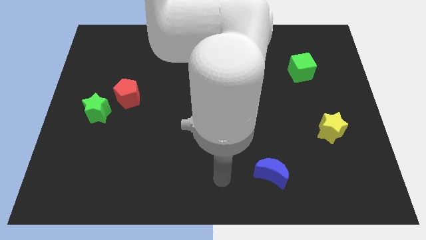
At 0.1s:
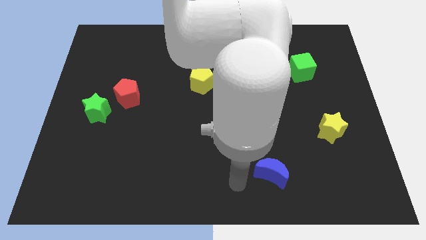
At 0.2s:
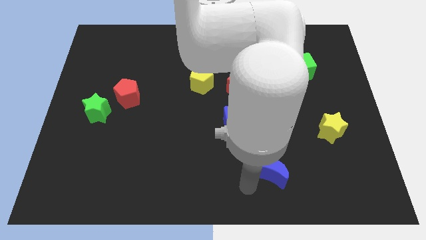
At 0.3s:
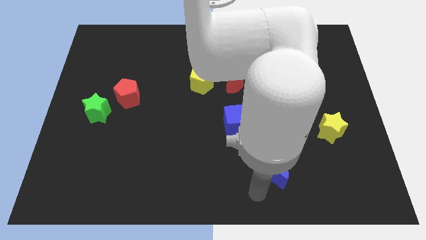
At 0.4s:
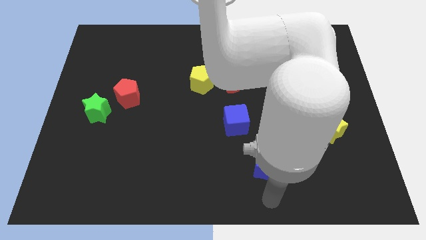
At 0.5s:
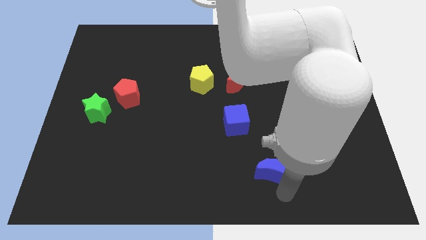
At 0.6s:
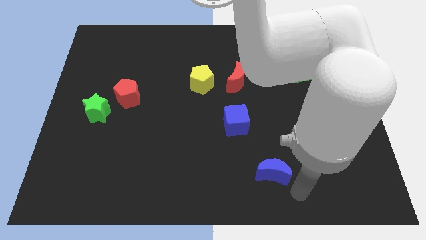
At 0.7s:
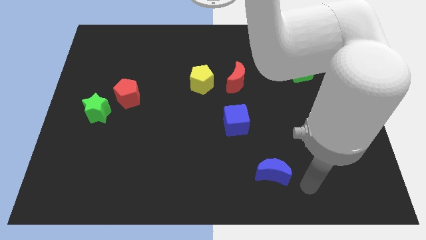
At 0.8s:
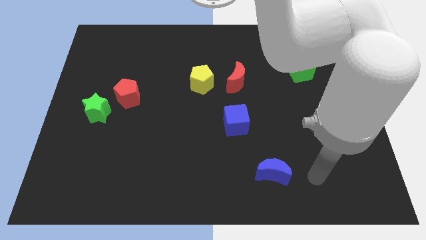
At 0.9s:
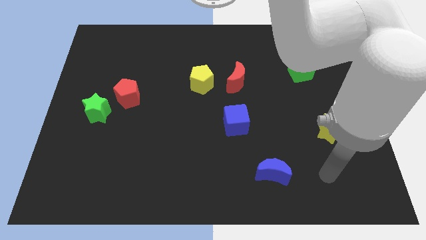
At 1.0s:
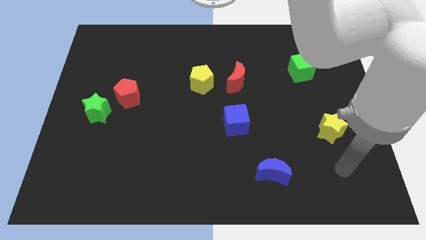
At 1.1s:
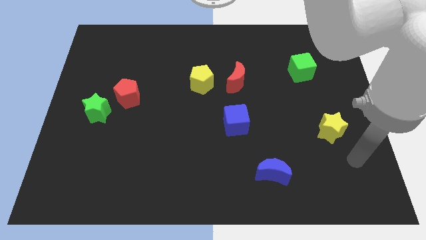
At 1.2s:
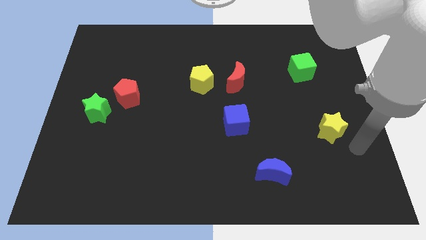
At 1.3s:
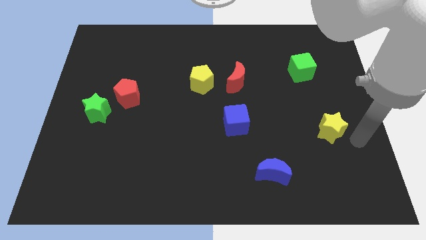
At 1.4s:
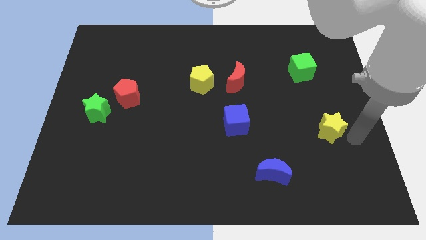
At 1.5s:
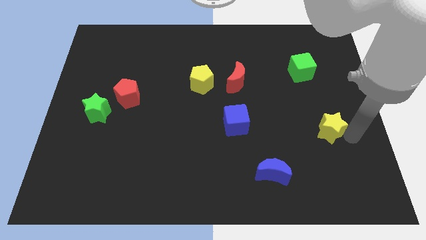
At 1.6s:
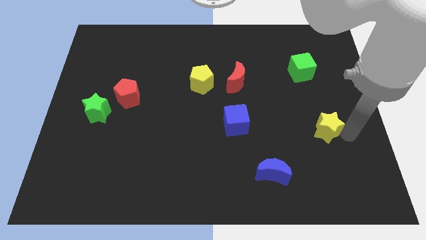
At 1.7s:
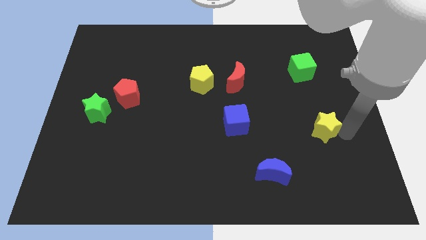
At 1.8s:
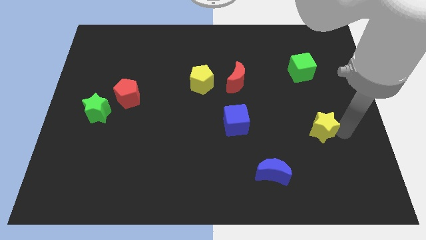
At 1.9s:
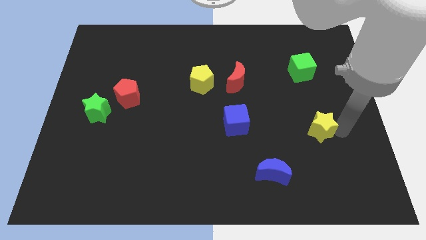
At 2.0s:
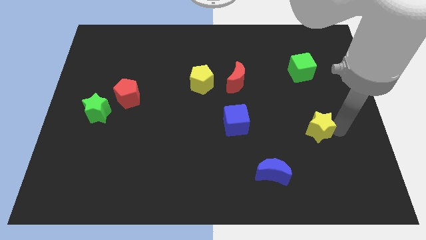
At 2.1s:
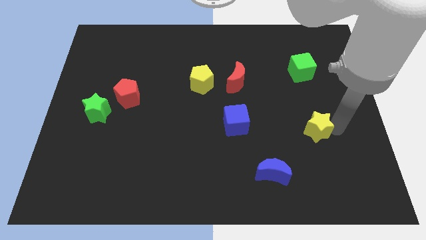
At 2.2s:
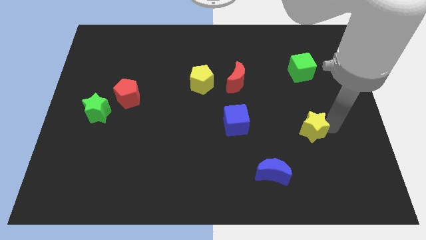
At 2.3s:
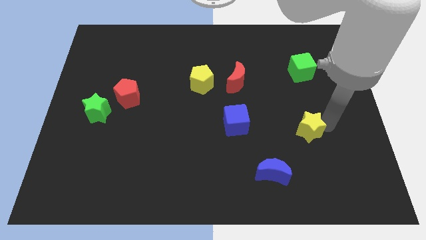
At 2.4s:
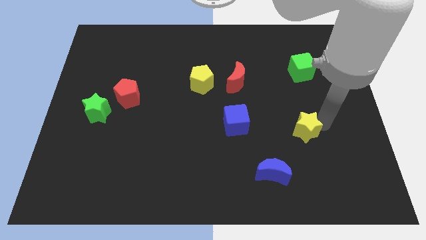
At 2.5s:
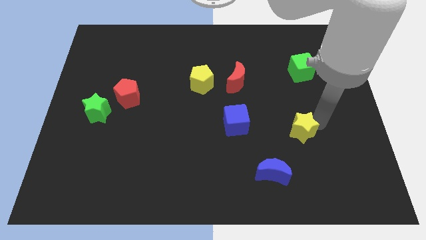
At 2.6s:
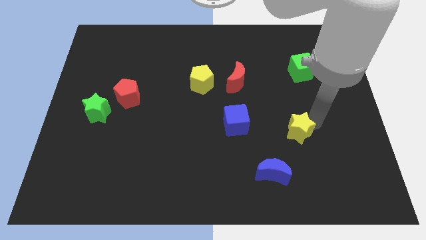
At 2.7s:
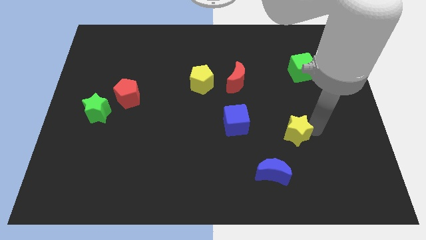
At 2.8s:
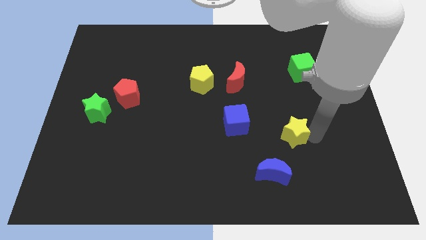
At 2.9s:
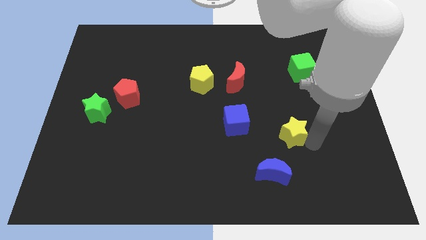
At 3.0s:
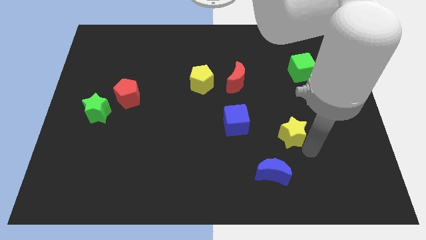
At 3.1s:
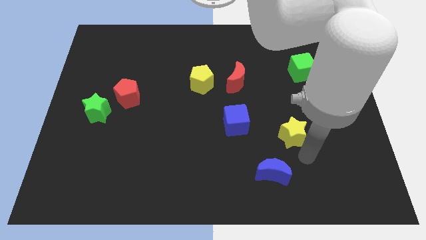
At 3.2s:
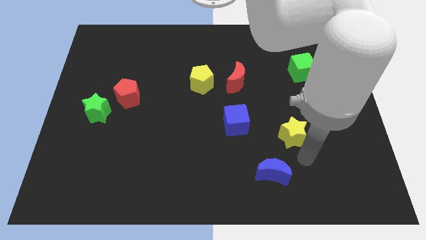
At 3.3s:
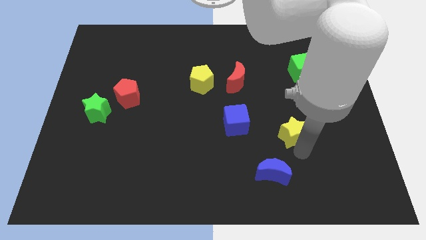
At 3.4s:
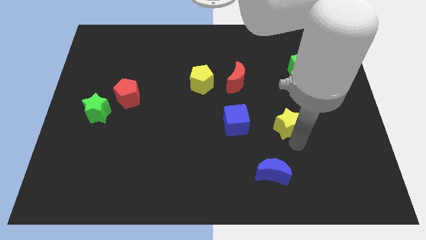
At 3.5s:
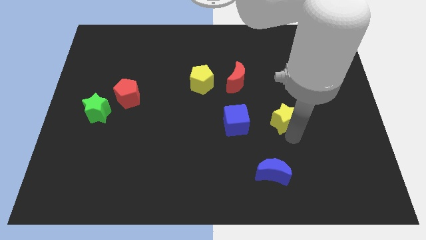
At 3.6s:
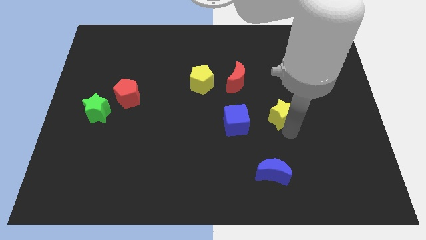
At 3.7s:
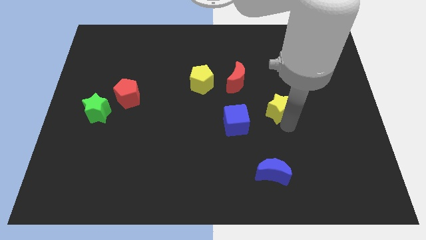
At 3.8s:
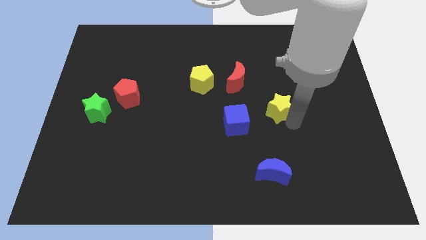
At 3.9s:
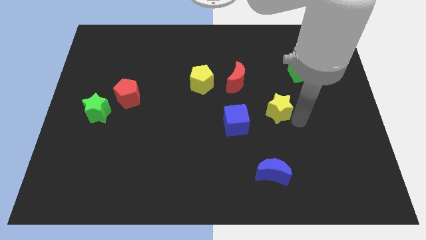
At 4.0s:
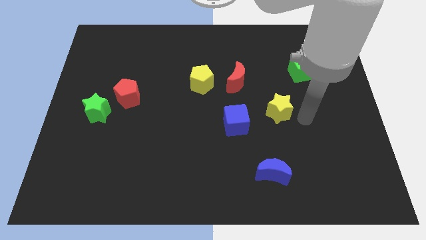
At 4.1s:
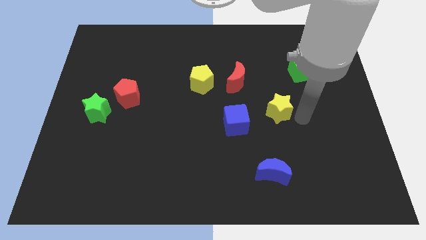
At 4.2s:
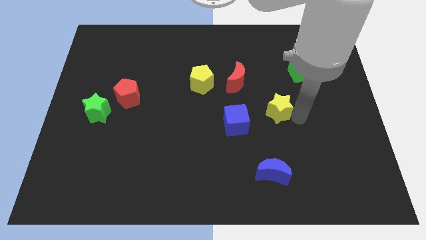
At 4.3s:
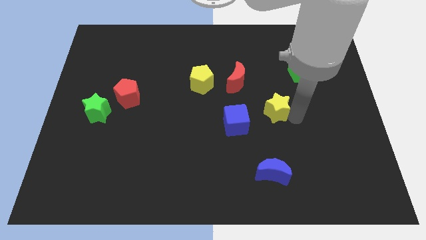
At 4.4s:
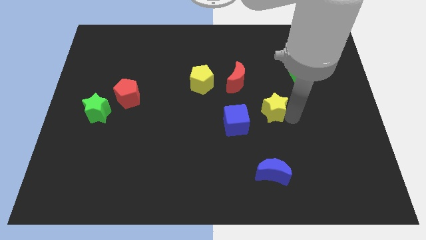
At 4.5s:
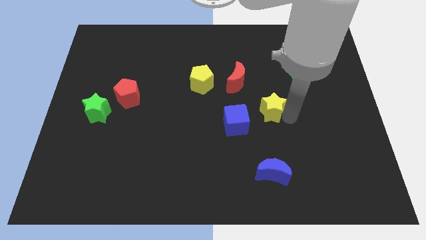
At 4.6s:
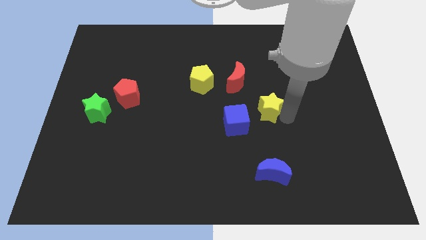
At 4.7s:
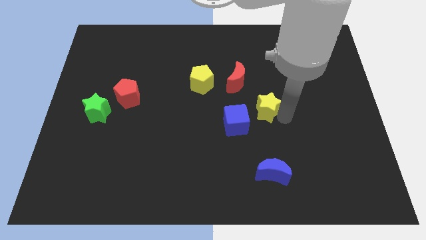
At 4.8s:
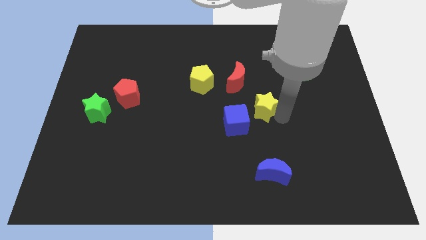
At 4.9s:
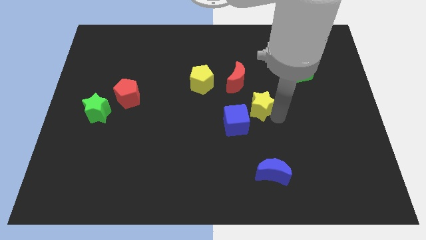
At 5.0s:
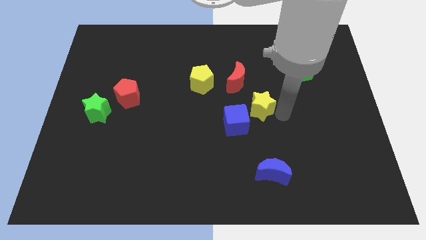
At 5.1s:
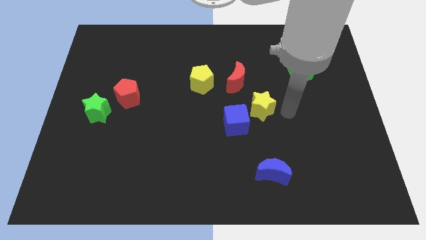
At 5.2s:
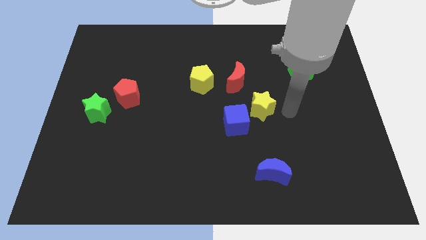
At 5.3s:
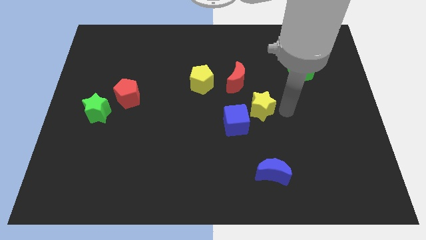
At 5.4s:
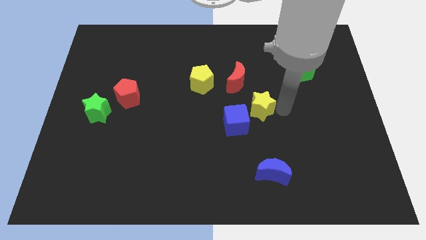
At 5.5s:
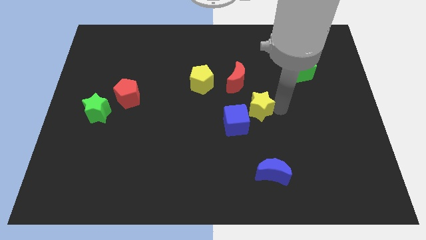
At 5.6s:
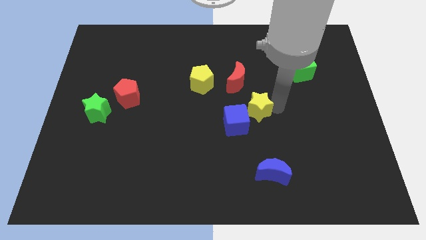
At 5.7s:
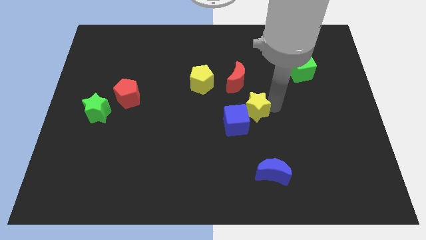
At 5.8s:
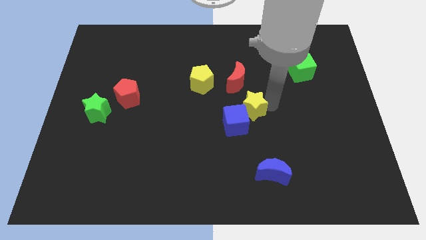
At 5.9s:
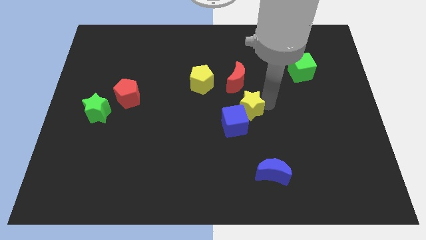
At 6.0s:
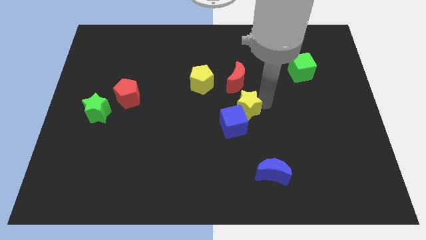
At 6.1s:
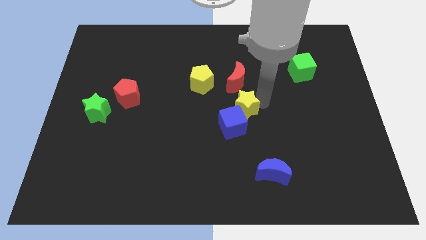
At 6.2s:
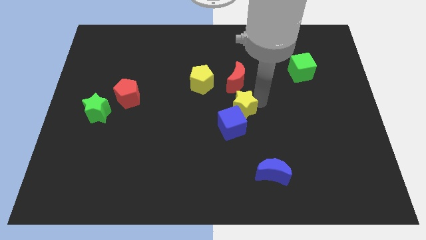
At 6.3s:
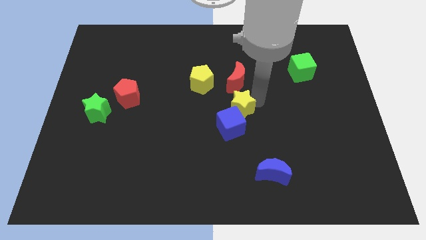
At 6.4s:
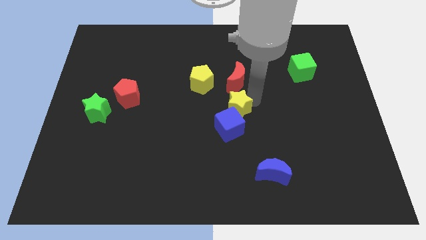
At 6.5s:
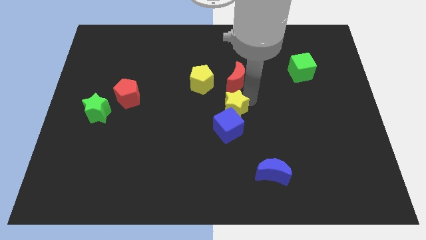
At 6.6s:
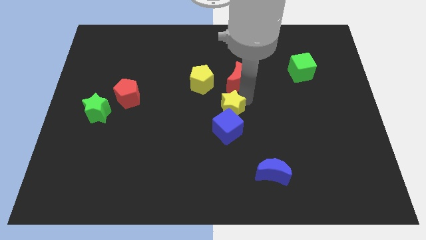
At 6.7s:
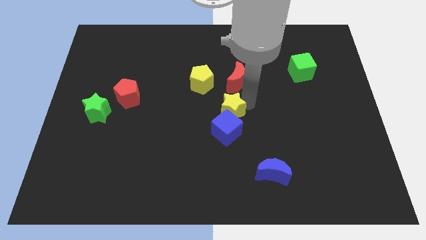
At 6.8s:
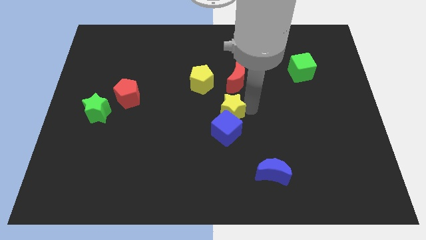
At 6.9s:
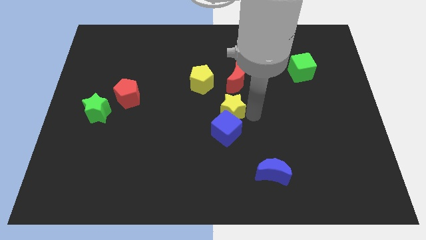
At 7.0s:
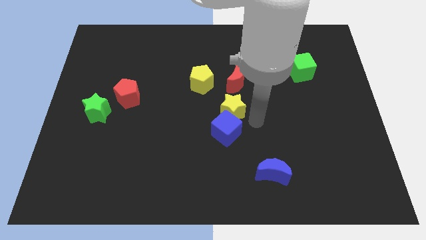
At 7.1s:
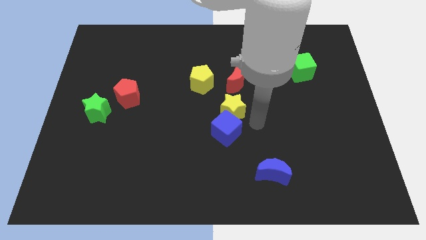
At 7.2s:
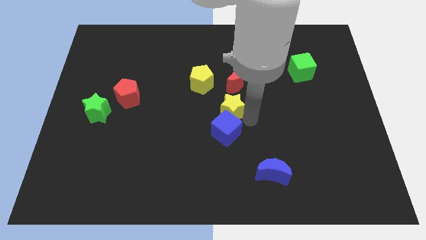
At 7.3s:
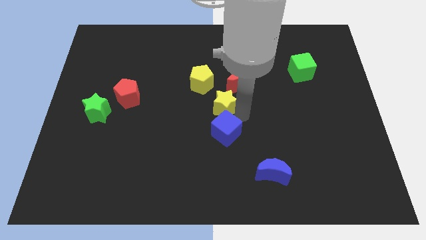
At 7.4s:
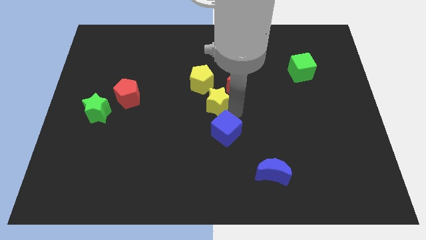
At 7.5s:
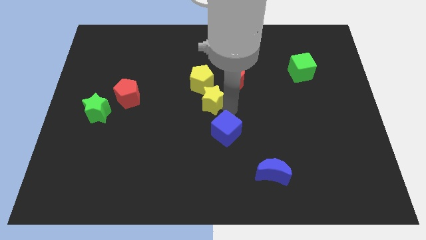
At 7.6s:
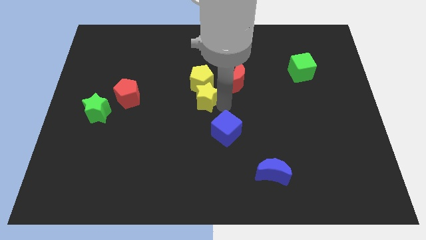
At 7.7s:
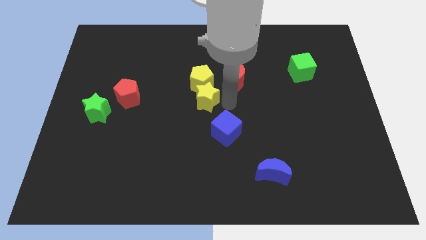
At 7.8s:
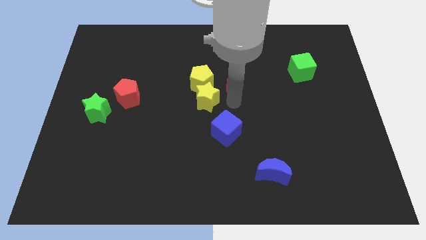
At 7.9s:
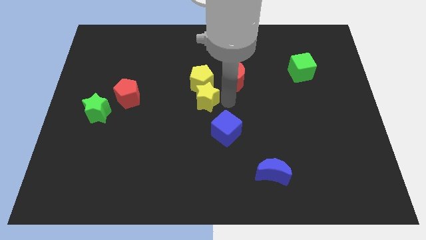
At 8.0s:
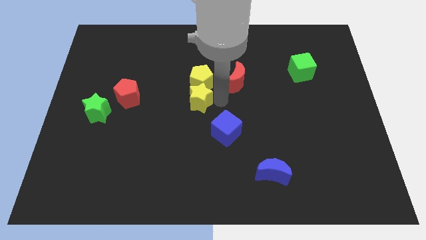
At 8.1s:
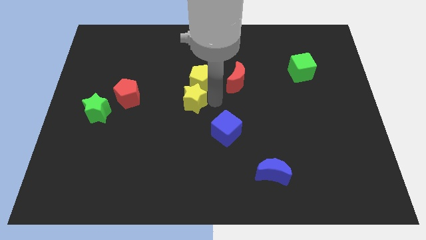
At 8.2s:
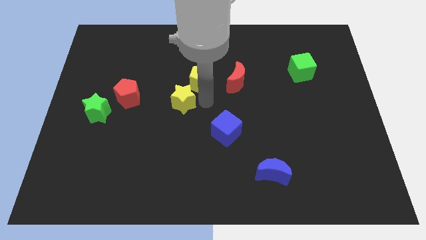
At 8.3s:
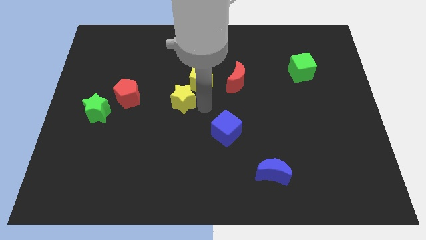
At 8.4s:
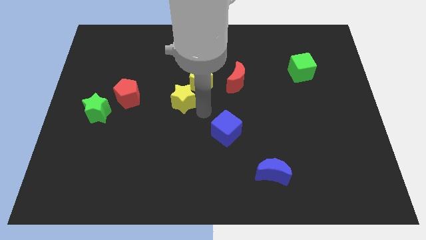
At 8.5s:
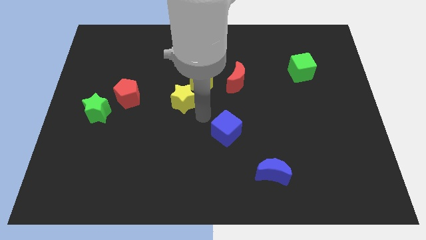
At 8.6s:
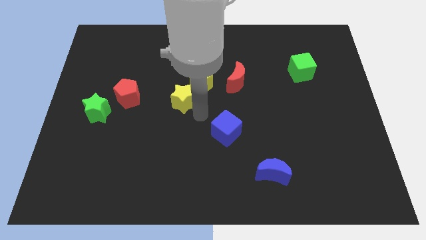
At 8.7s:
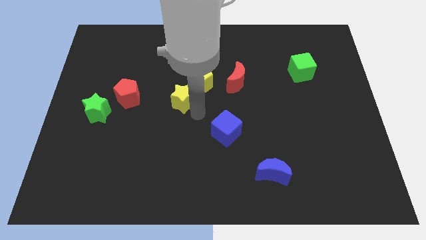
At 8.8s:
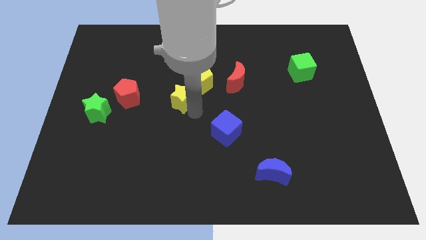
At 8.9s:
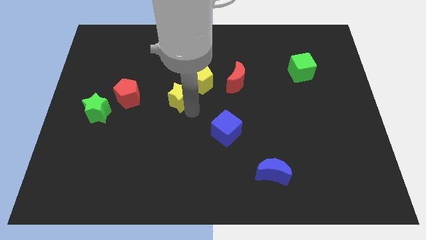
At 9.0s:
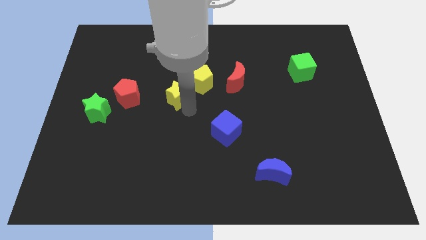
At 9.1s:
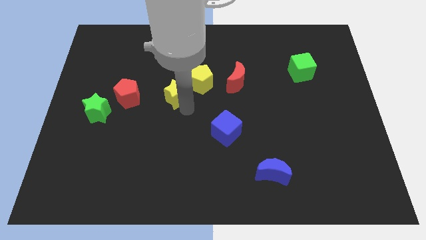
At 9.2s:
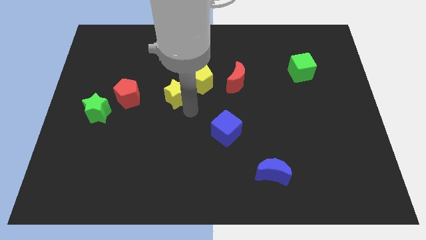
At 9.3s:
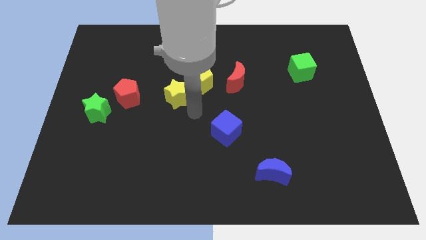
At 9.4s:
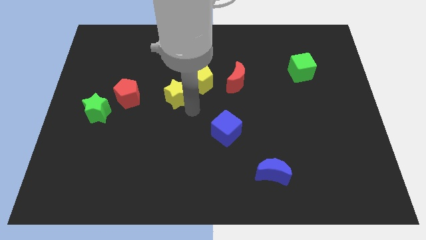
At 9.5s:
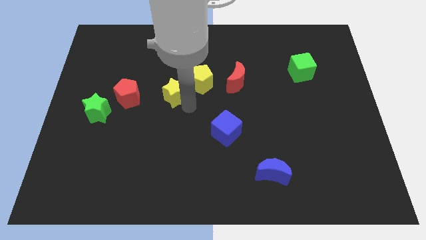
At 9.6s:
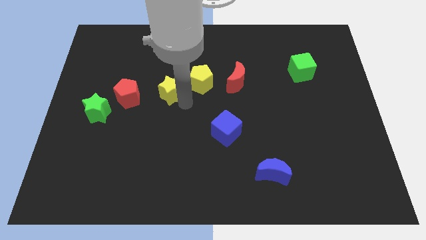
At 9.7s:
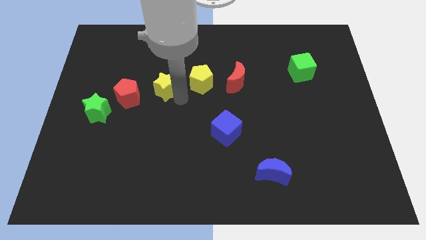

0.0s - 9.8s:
push the yellow star to the top right of the red pentagon
